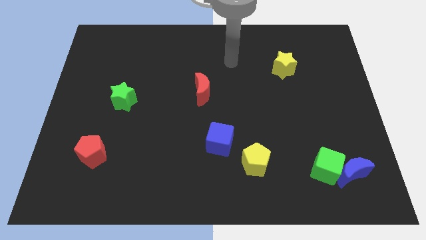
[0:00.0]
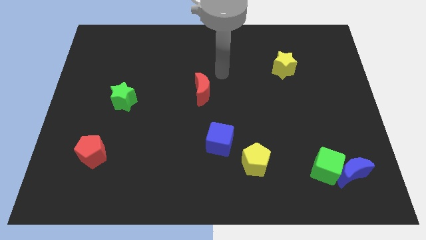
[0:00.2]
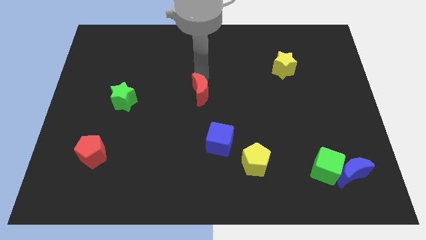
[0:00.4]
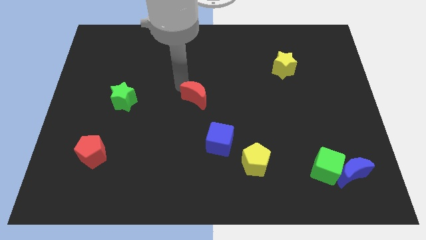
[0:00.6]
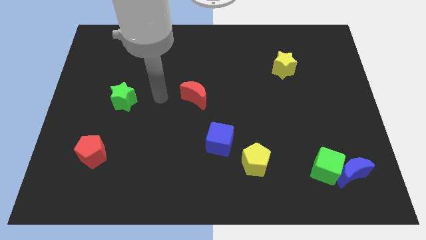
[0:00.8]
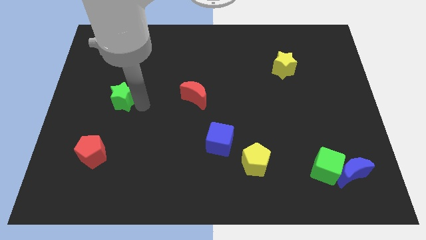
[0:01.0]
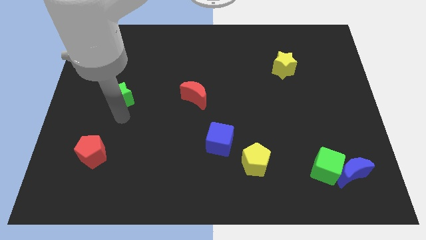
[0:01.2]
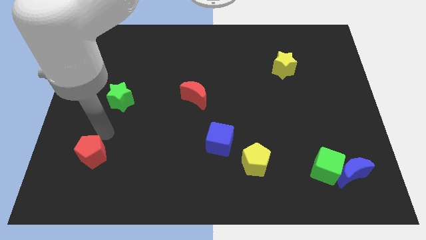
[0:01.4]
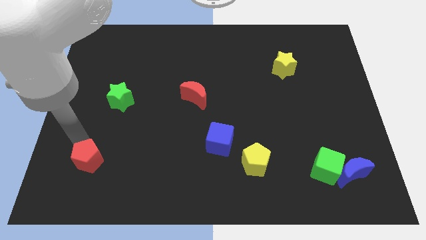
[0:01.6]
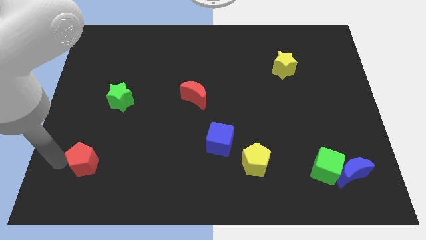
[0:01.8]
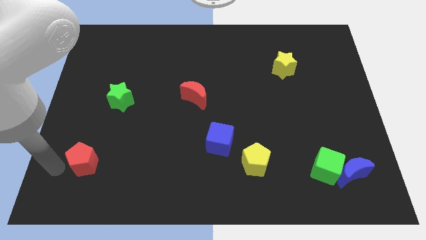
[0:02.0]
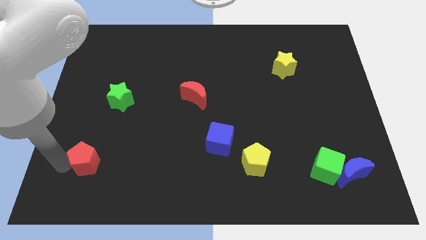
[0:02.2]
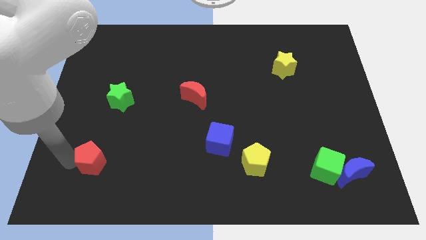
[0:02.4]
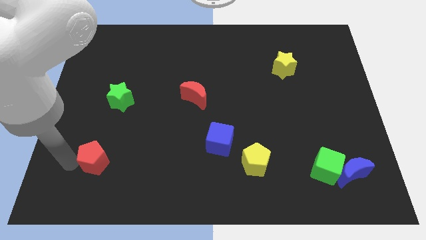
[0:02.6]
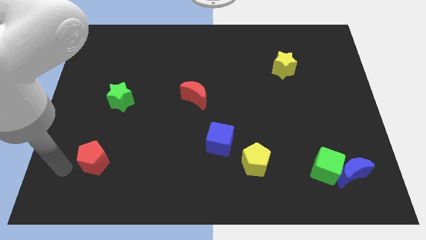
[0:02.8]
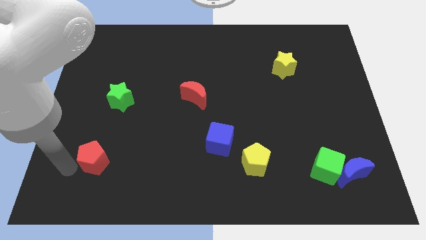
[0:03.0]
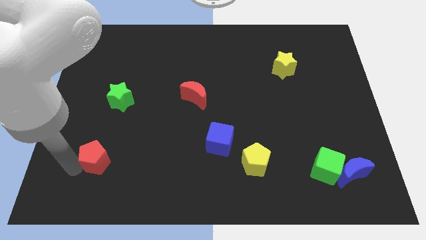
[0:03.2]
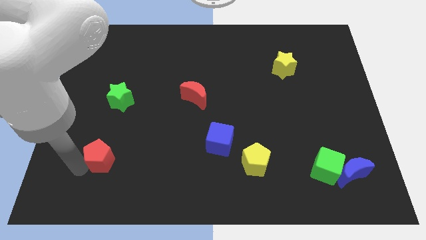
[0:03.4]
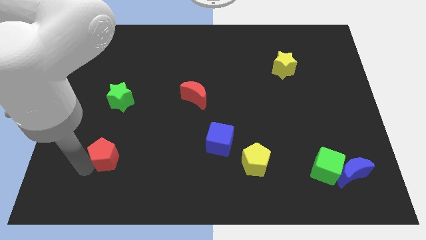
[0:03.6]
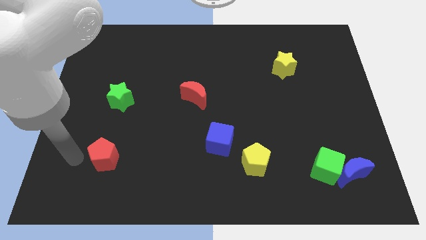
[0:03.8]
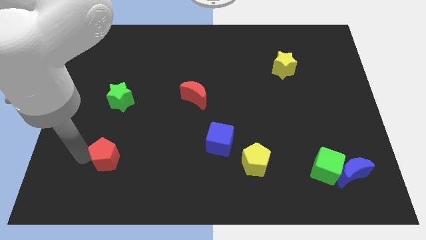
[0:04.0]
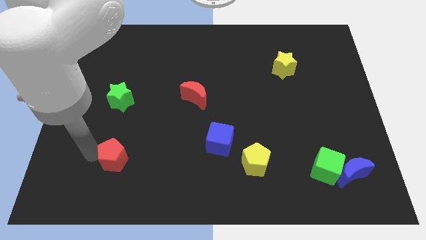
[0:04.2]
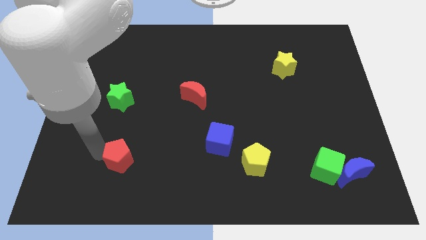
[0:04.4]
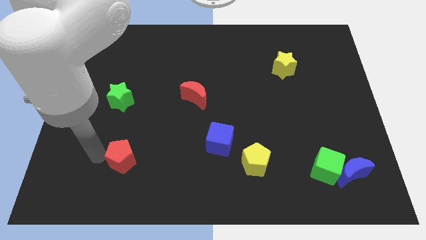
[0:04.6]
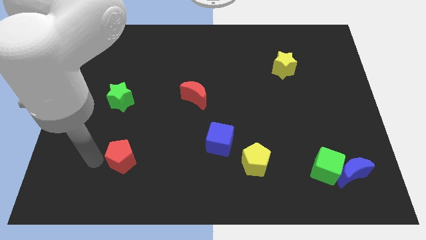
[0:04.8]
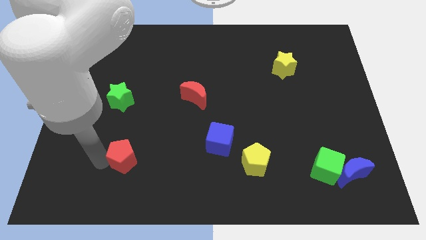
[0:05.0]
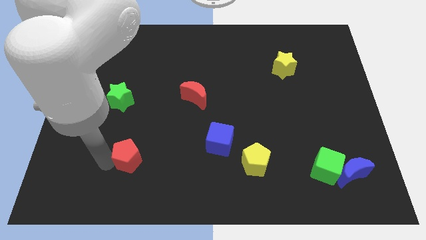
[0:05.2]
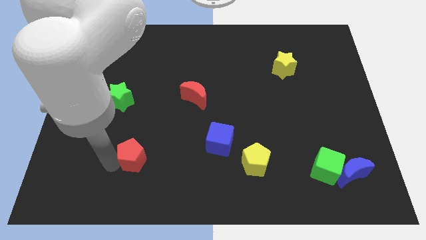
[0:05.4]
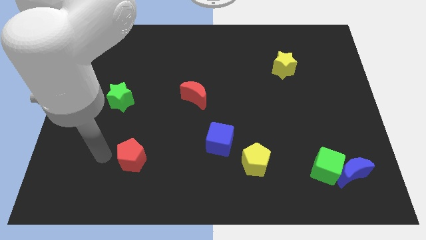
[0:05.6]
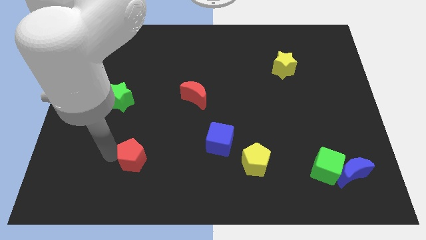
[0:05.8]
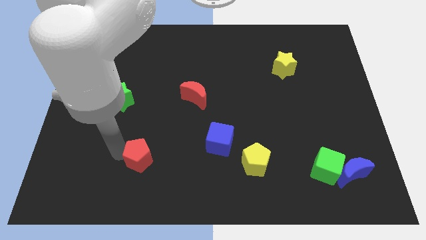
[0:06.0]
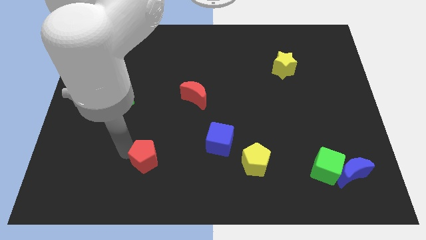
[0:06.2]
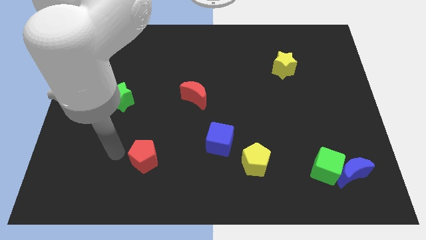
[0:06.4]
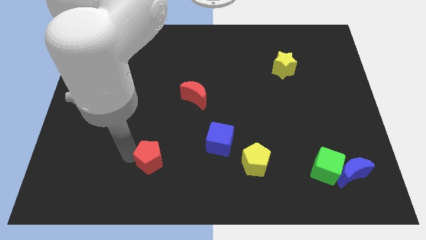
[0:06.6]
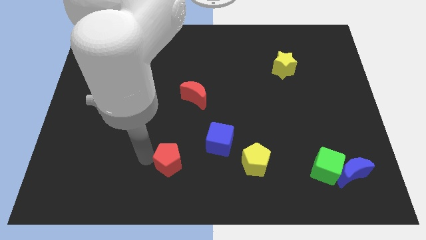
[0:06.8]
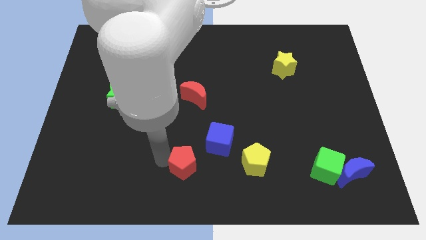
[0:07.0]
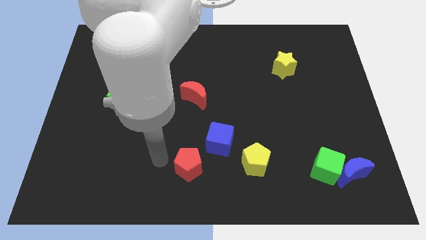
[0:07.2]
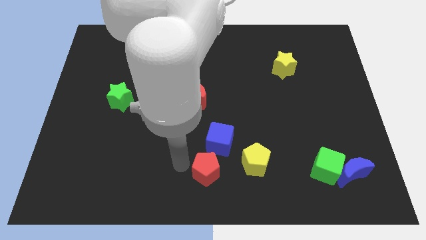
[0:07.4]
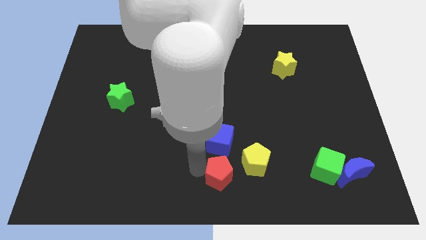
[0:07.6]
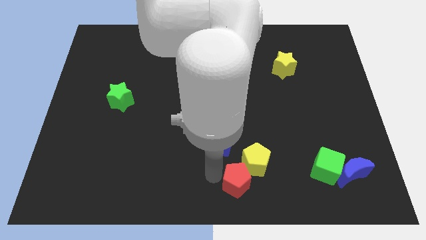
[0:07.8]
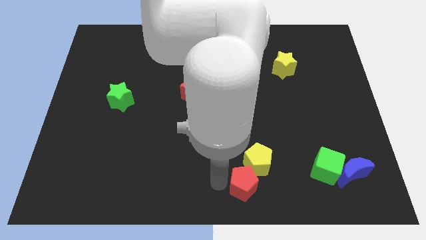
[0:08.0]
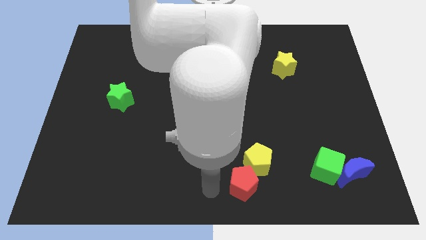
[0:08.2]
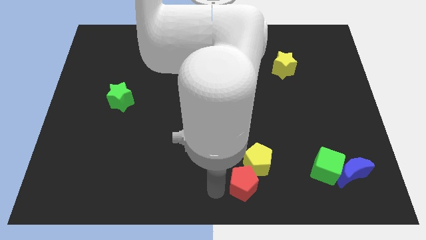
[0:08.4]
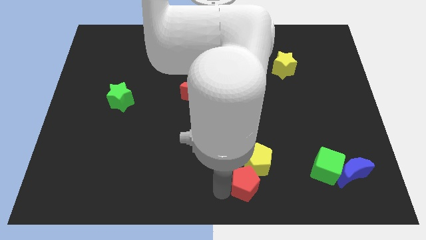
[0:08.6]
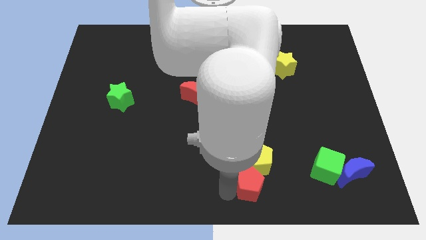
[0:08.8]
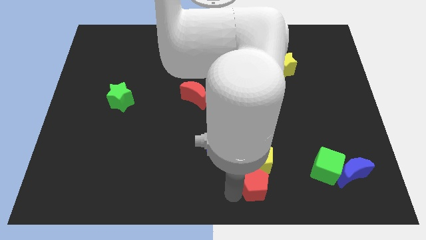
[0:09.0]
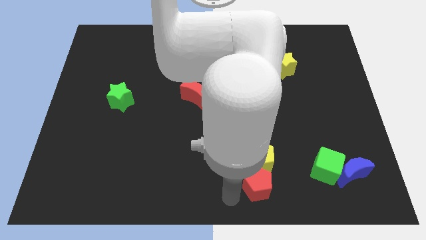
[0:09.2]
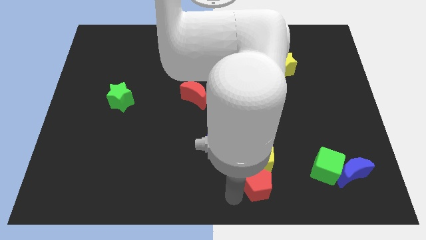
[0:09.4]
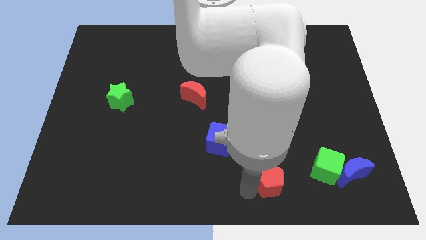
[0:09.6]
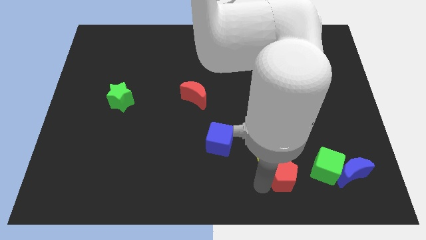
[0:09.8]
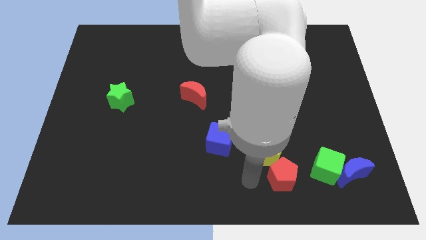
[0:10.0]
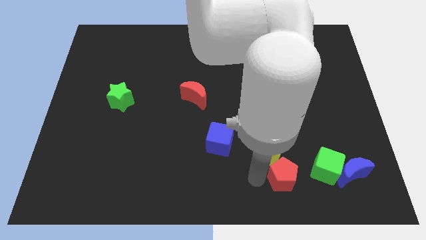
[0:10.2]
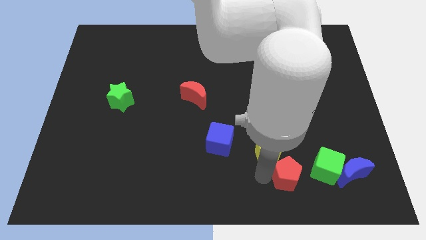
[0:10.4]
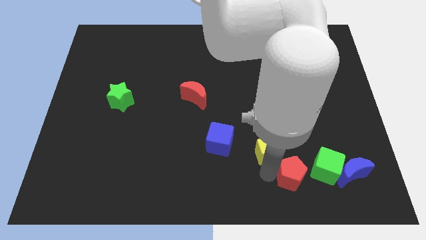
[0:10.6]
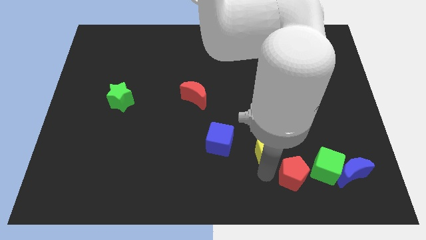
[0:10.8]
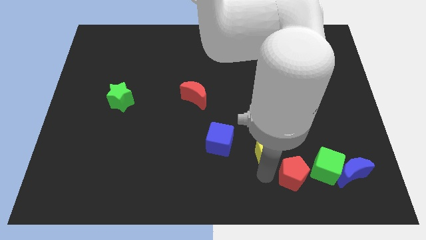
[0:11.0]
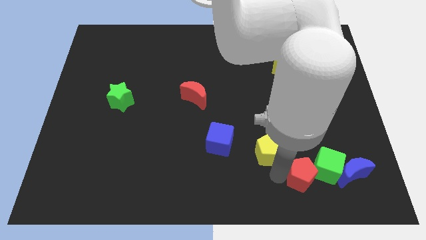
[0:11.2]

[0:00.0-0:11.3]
put the red pentagon towards the green cube

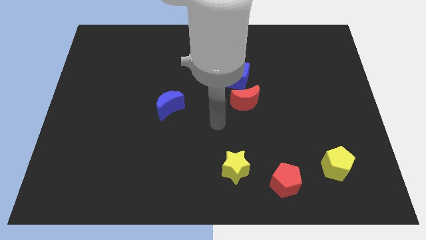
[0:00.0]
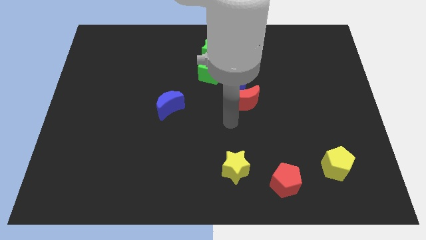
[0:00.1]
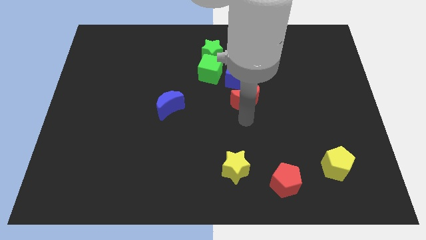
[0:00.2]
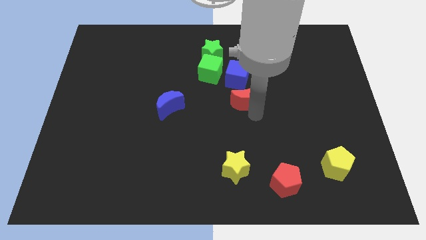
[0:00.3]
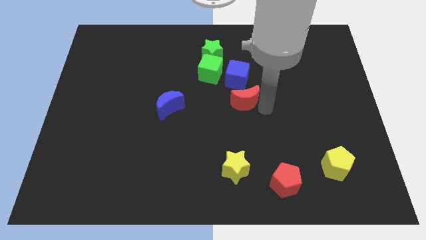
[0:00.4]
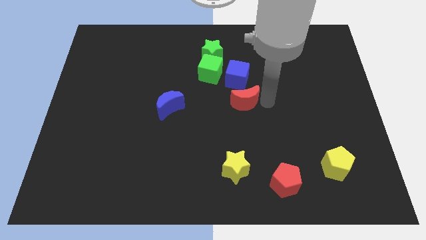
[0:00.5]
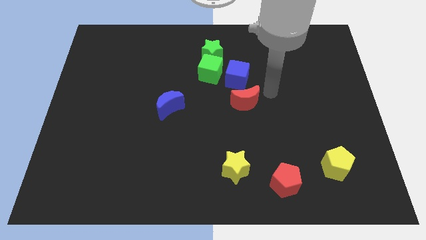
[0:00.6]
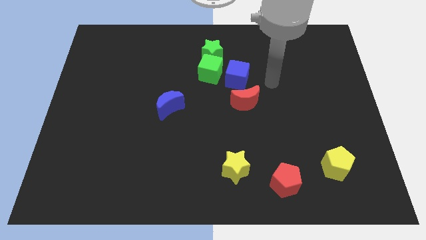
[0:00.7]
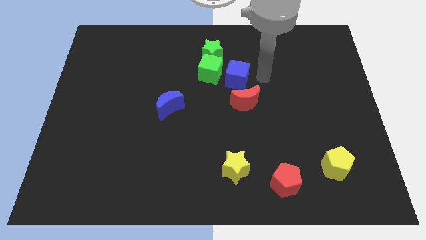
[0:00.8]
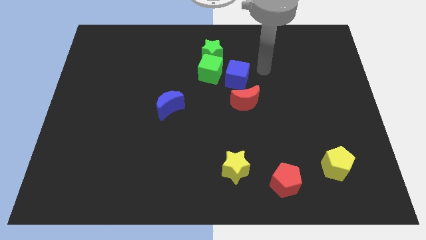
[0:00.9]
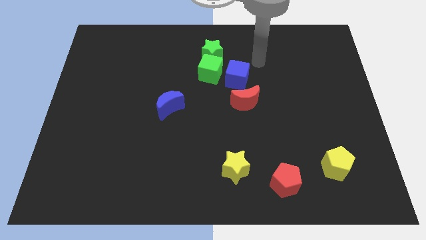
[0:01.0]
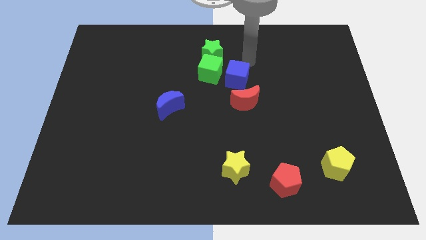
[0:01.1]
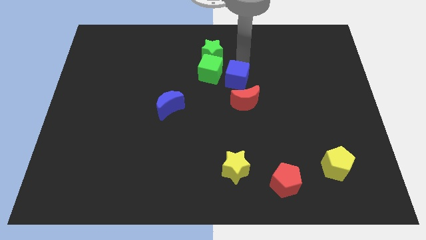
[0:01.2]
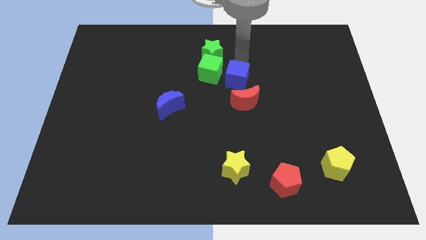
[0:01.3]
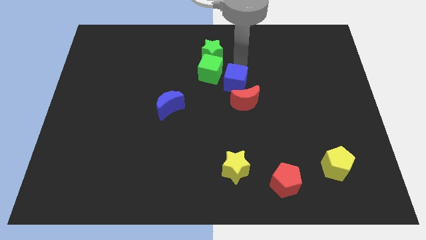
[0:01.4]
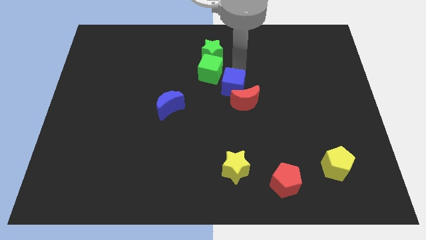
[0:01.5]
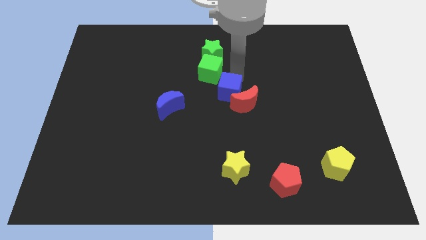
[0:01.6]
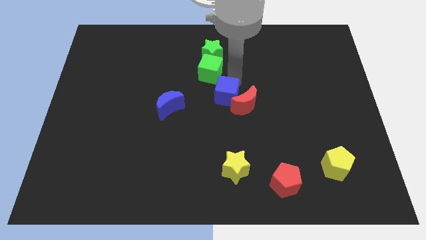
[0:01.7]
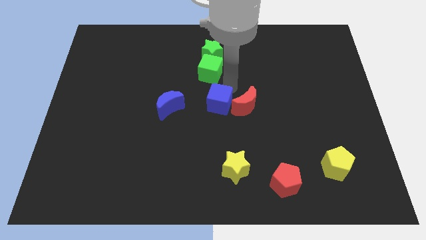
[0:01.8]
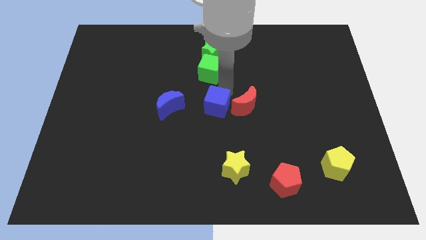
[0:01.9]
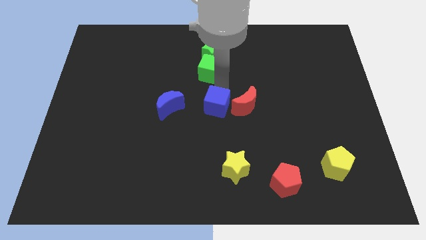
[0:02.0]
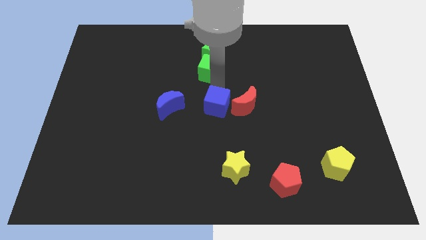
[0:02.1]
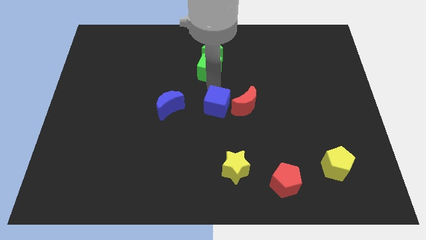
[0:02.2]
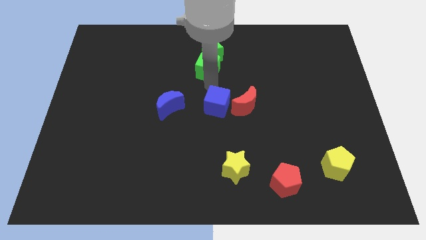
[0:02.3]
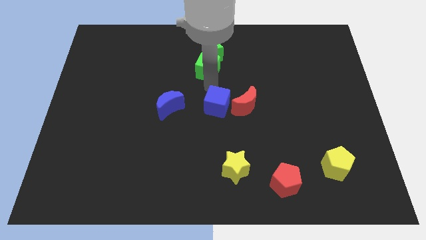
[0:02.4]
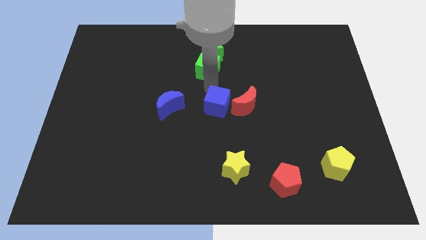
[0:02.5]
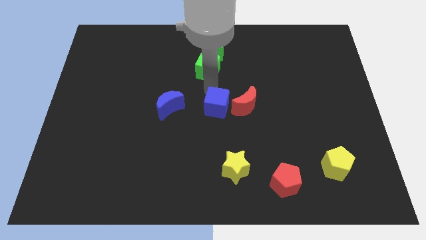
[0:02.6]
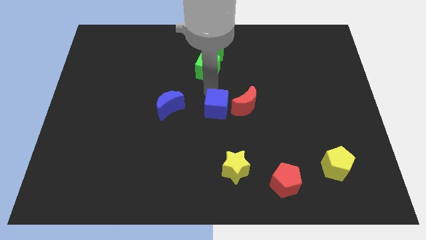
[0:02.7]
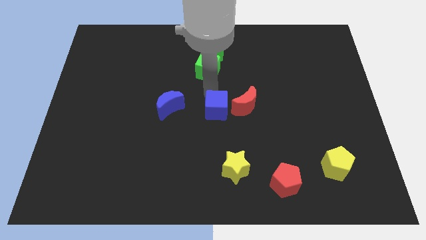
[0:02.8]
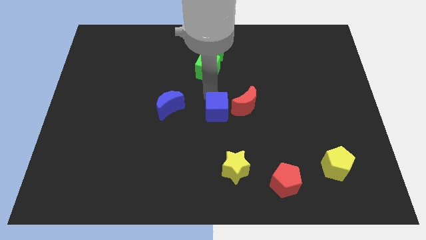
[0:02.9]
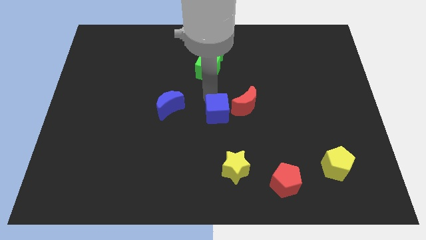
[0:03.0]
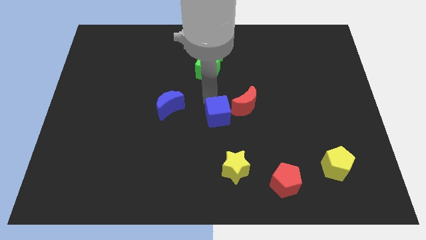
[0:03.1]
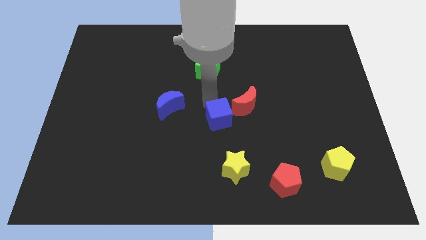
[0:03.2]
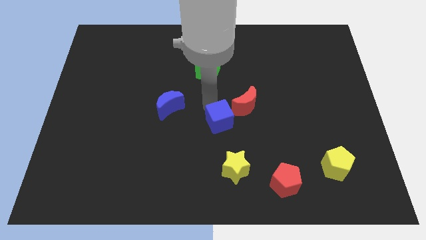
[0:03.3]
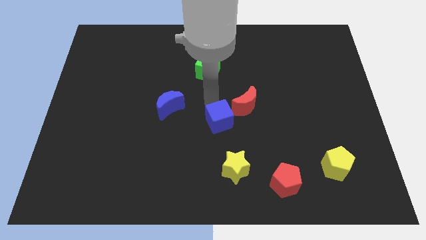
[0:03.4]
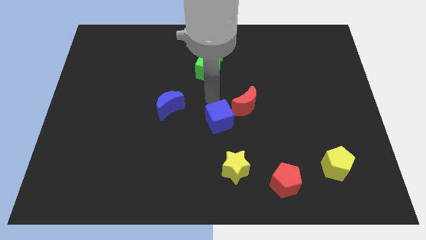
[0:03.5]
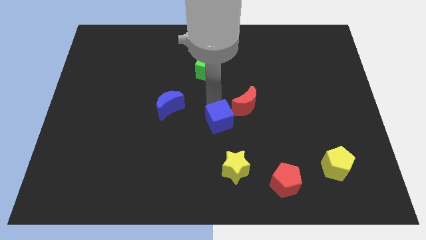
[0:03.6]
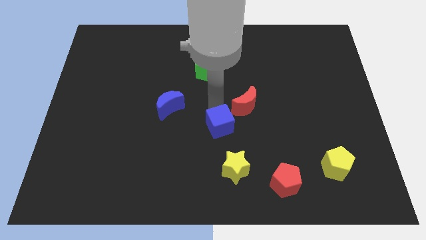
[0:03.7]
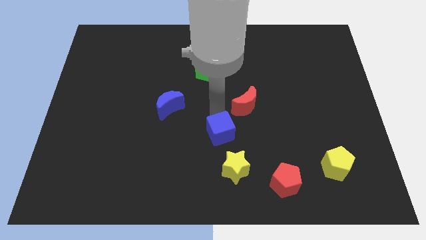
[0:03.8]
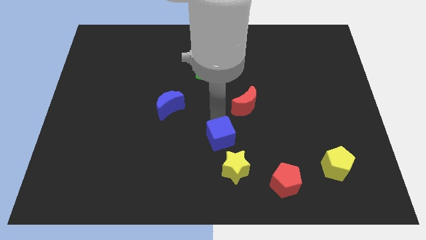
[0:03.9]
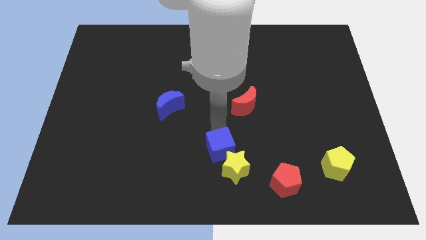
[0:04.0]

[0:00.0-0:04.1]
slide the blue cube next to the yellow star
